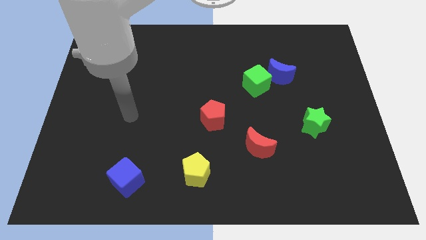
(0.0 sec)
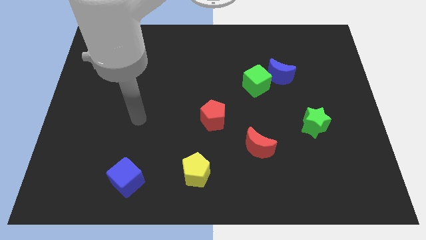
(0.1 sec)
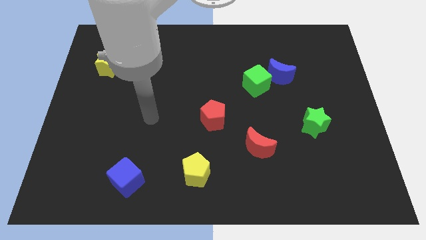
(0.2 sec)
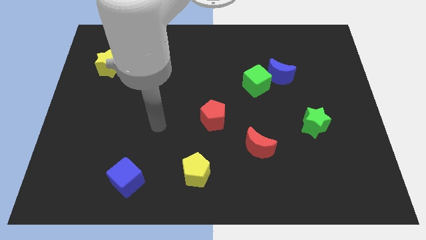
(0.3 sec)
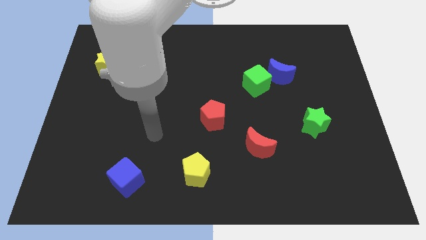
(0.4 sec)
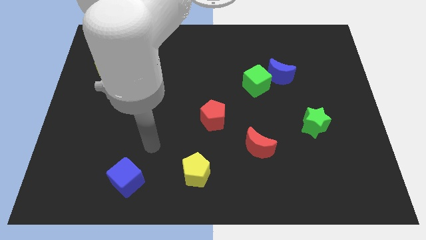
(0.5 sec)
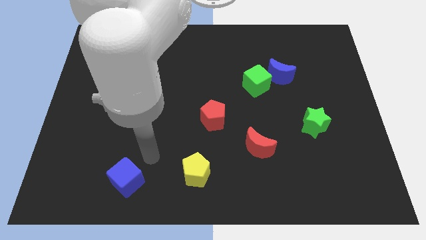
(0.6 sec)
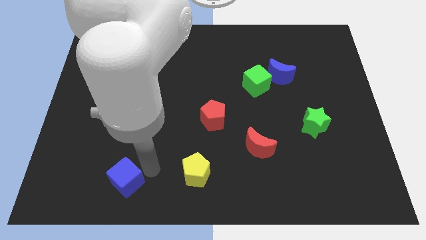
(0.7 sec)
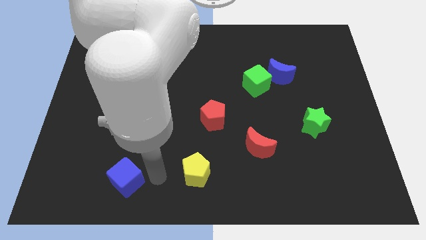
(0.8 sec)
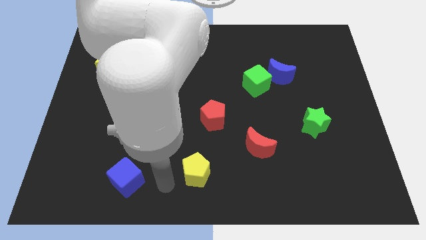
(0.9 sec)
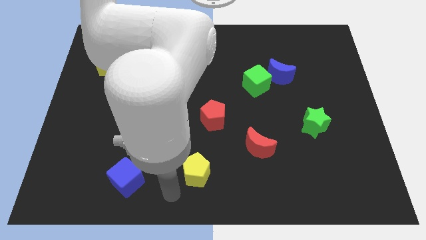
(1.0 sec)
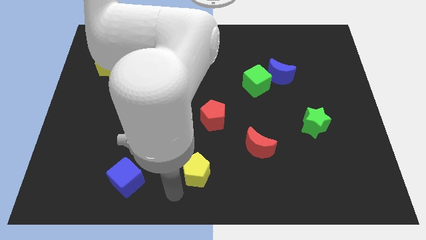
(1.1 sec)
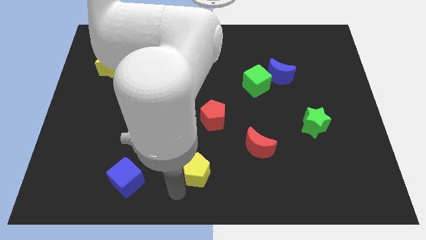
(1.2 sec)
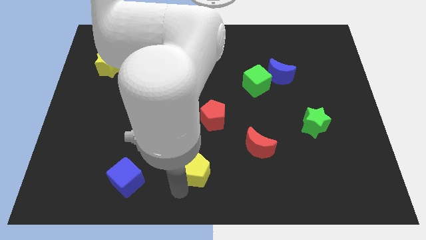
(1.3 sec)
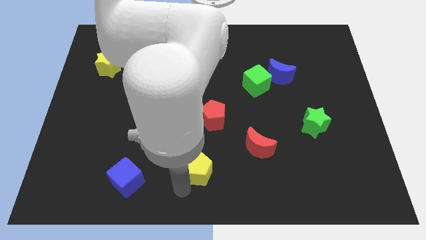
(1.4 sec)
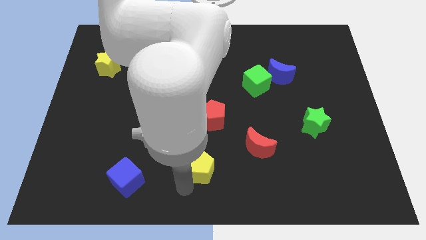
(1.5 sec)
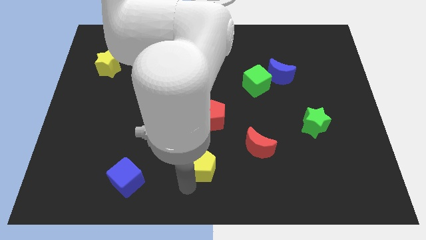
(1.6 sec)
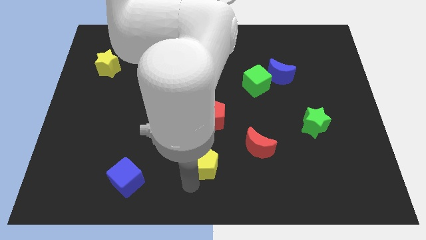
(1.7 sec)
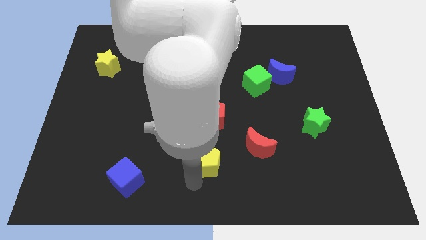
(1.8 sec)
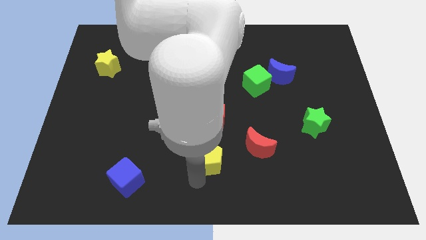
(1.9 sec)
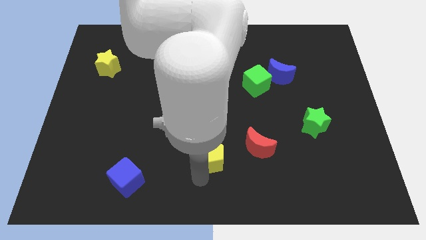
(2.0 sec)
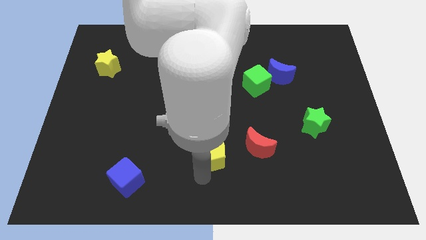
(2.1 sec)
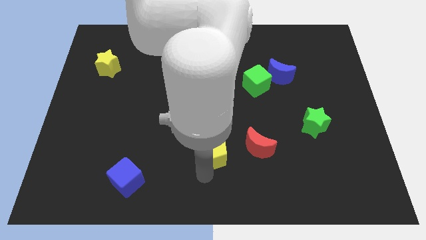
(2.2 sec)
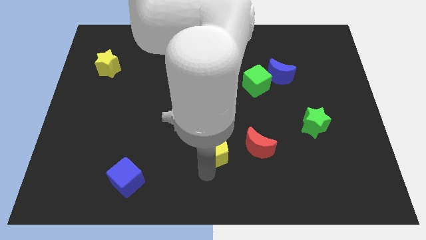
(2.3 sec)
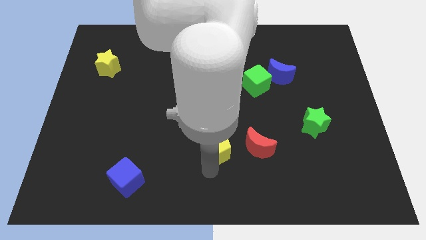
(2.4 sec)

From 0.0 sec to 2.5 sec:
slightly move the yellow pentagon diagonally upwards and right

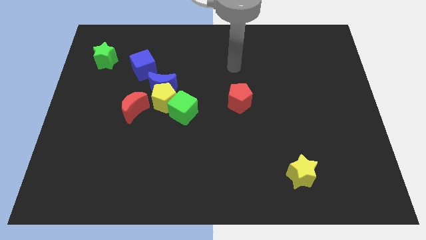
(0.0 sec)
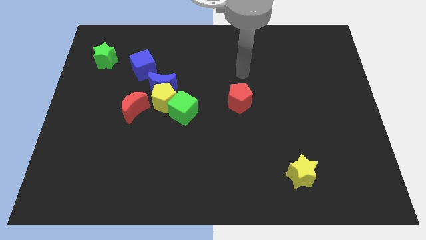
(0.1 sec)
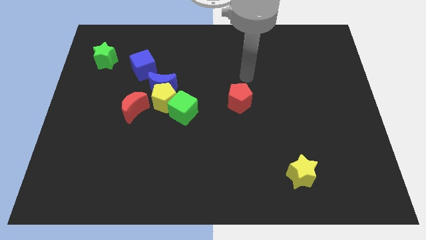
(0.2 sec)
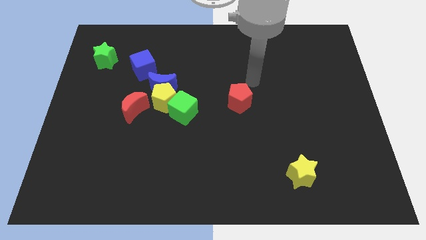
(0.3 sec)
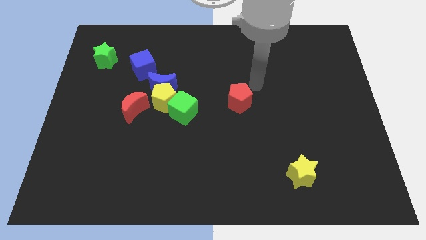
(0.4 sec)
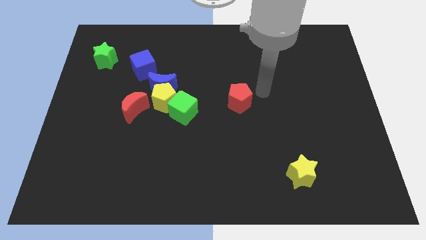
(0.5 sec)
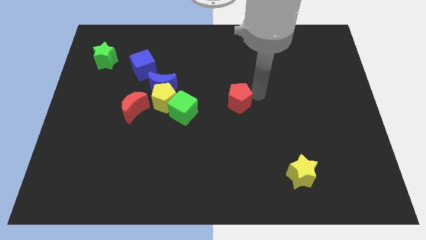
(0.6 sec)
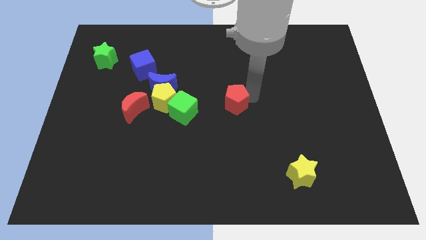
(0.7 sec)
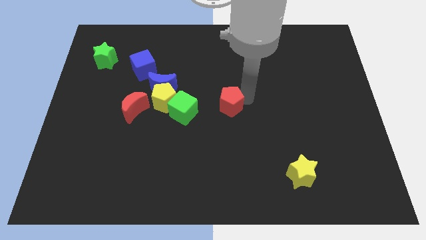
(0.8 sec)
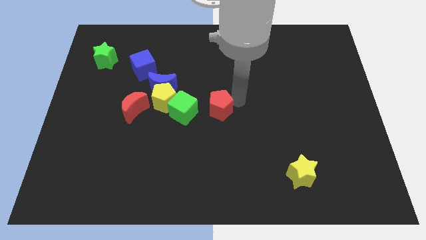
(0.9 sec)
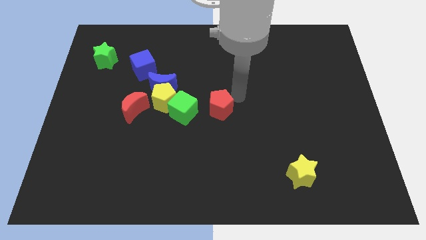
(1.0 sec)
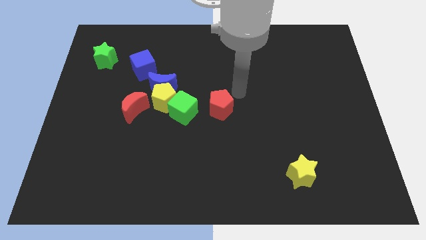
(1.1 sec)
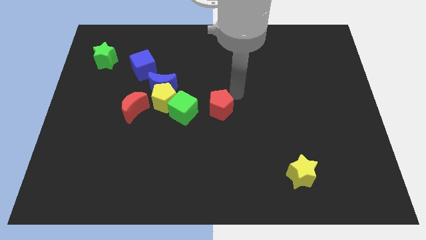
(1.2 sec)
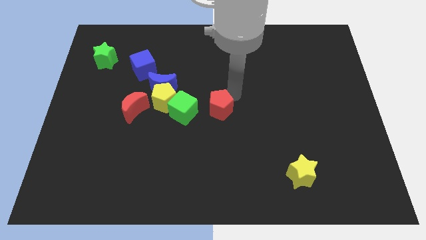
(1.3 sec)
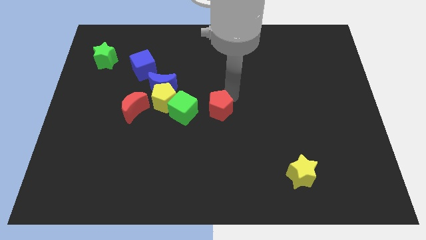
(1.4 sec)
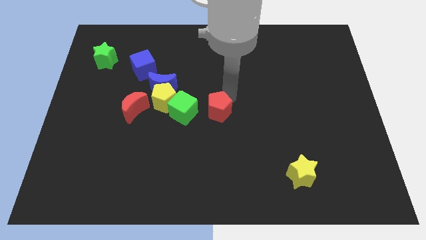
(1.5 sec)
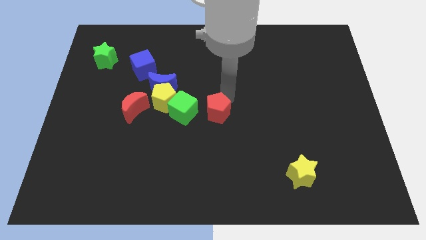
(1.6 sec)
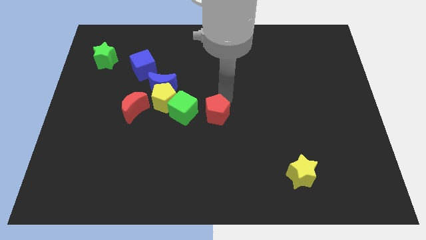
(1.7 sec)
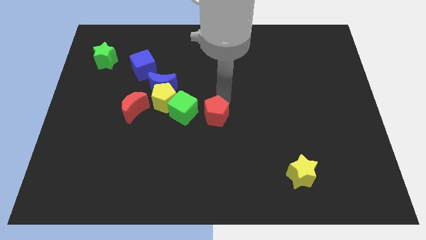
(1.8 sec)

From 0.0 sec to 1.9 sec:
slide the red pentagon diagonally downwards and to the left a little

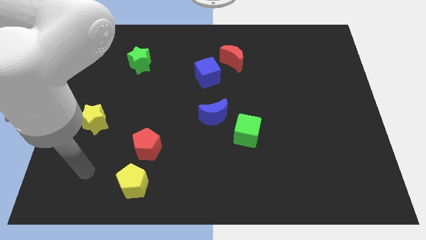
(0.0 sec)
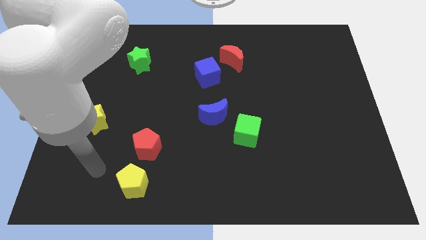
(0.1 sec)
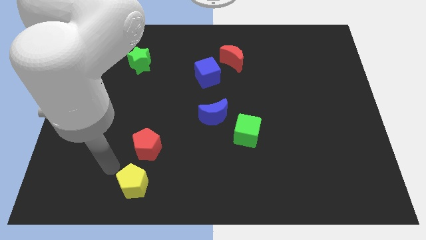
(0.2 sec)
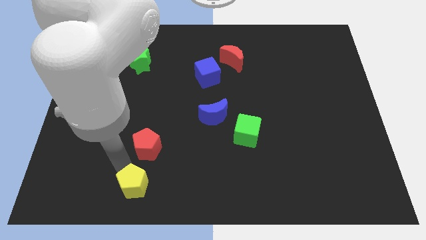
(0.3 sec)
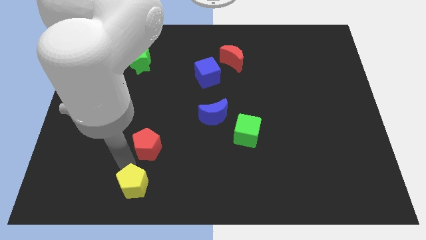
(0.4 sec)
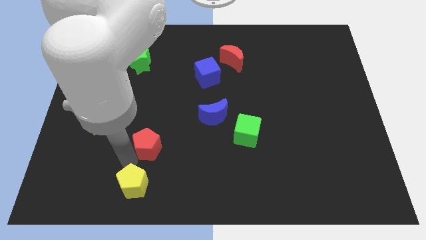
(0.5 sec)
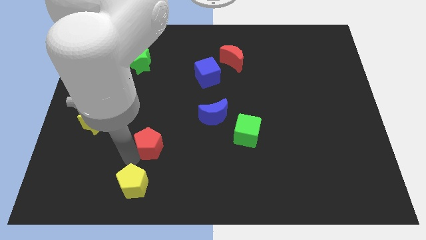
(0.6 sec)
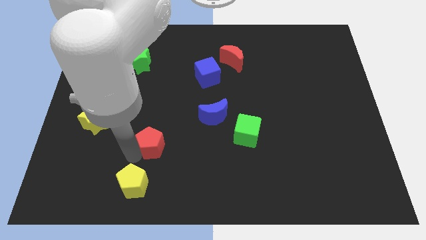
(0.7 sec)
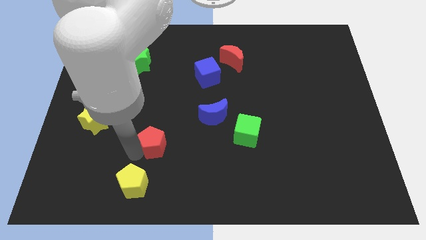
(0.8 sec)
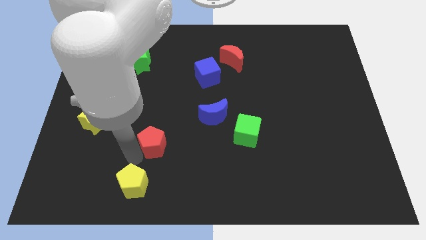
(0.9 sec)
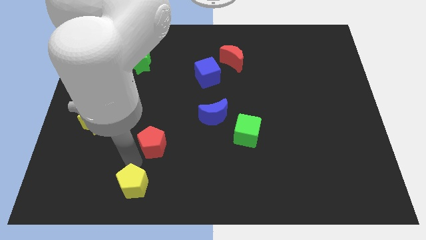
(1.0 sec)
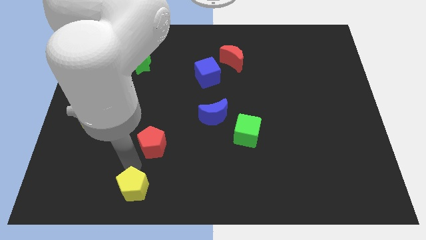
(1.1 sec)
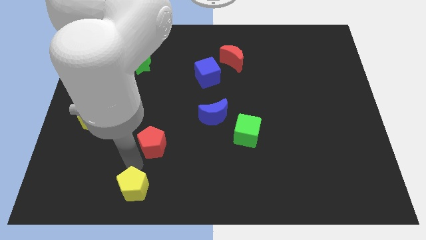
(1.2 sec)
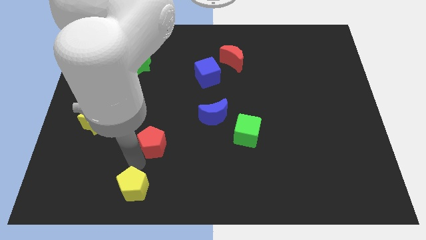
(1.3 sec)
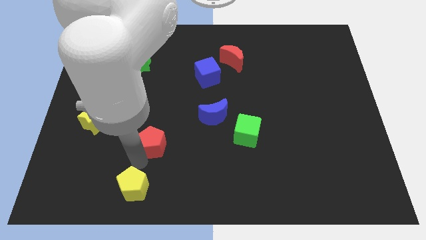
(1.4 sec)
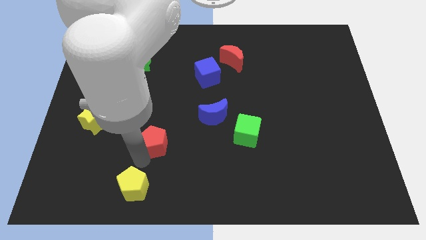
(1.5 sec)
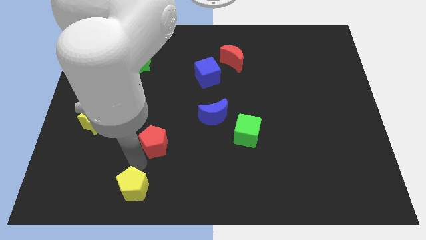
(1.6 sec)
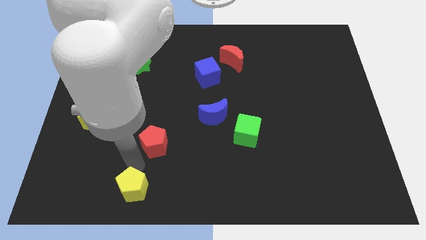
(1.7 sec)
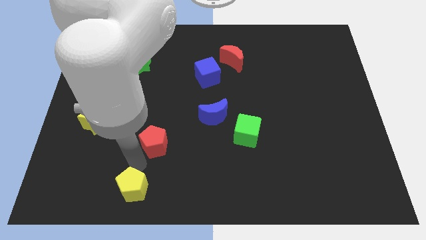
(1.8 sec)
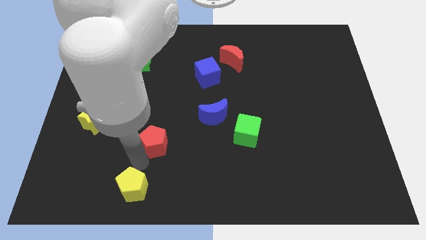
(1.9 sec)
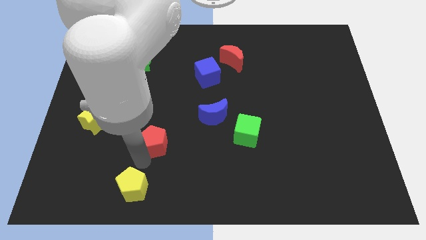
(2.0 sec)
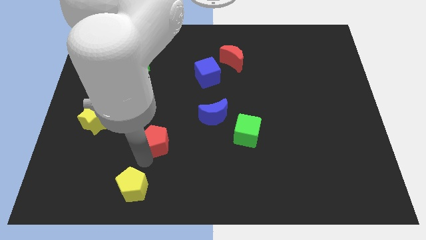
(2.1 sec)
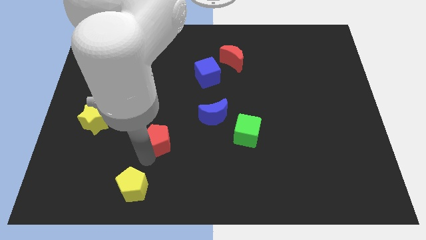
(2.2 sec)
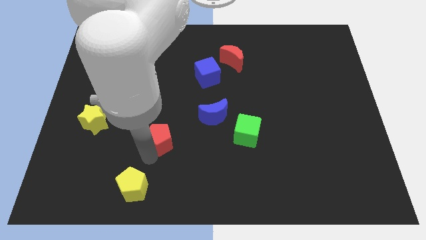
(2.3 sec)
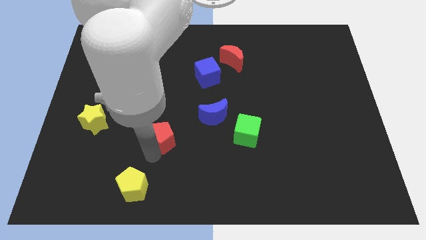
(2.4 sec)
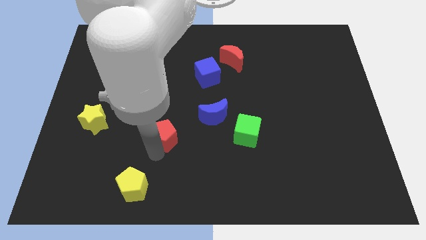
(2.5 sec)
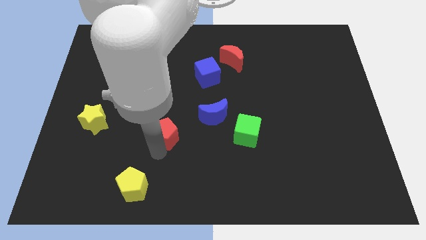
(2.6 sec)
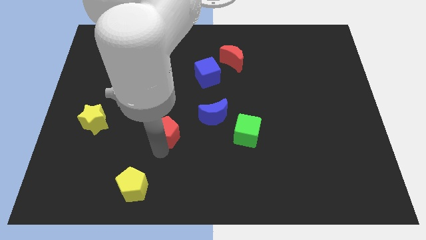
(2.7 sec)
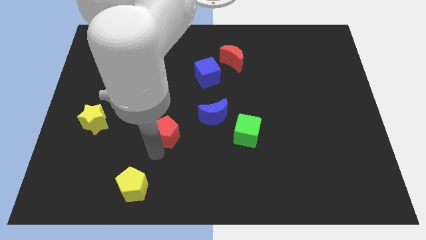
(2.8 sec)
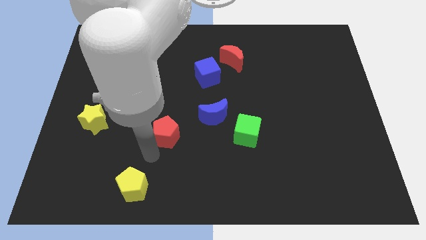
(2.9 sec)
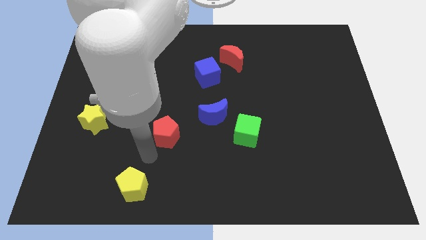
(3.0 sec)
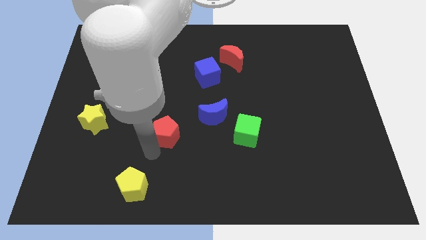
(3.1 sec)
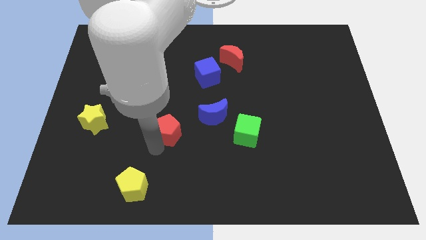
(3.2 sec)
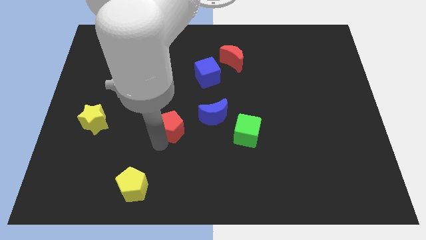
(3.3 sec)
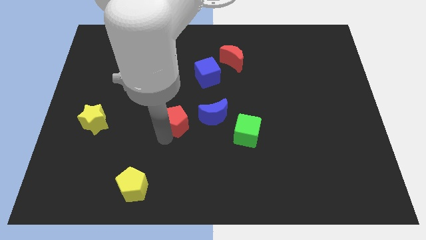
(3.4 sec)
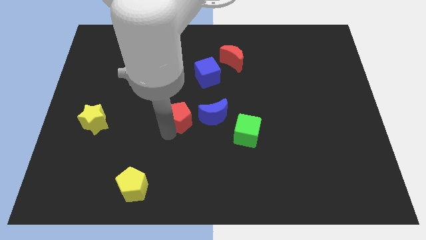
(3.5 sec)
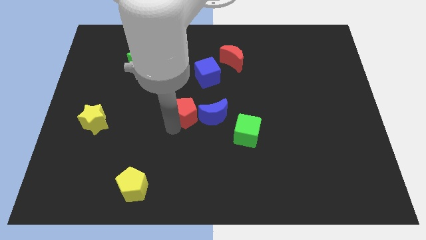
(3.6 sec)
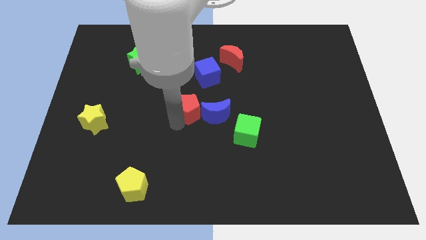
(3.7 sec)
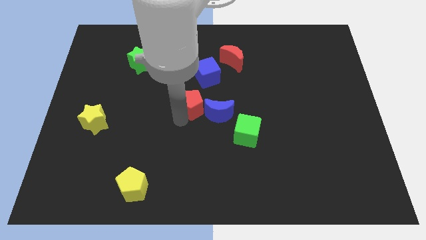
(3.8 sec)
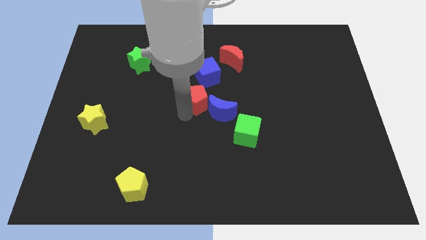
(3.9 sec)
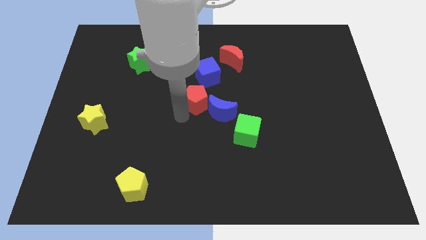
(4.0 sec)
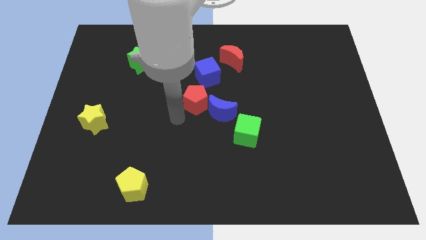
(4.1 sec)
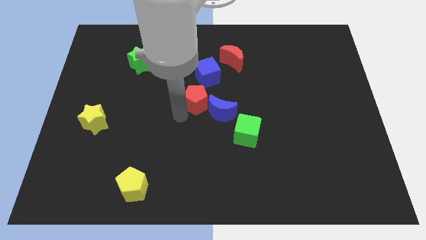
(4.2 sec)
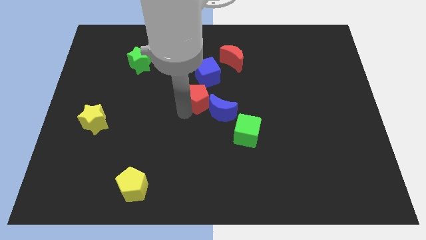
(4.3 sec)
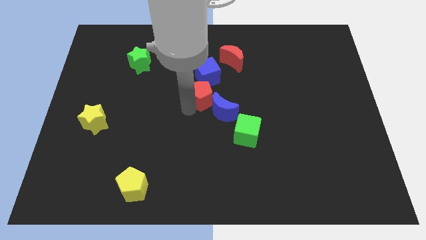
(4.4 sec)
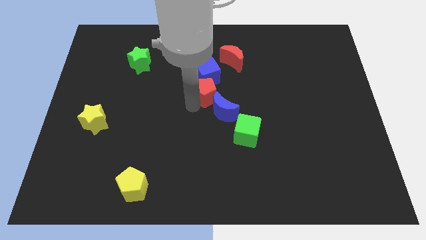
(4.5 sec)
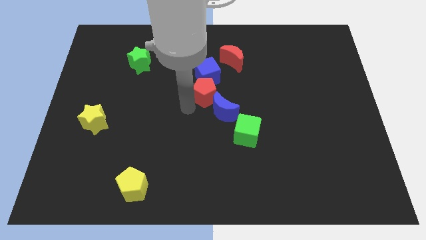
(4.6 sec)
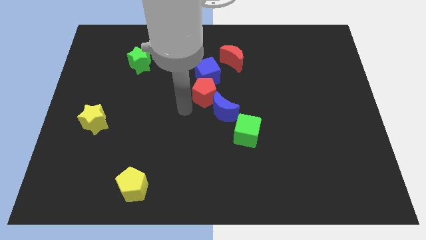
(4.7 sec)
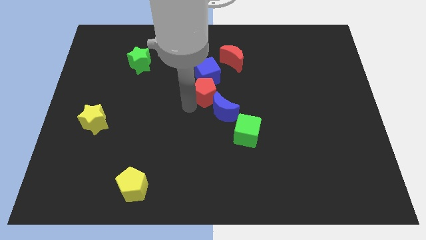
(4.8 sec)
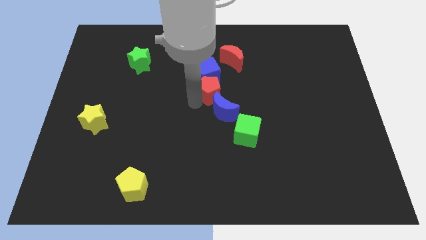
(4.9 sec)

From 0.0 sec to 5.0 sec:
slide the red pentagon upwards and to the right
